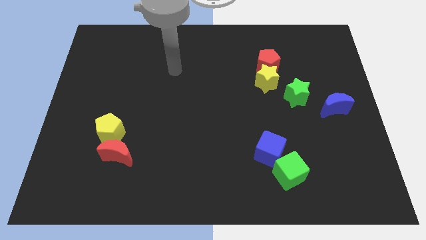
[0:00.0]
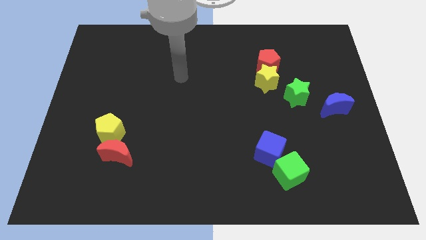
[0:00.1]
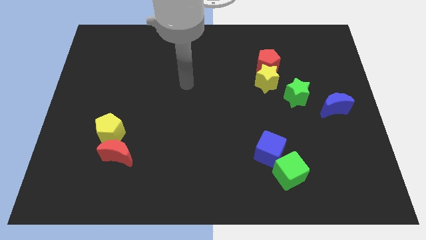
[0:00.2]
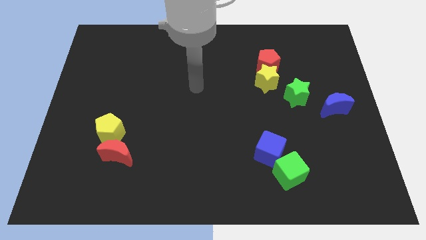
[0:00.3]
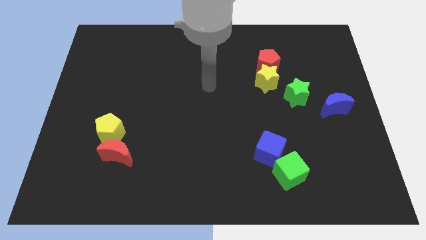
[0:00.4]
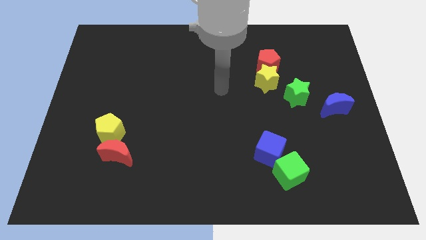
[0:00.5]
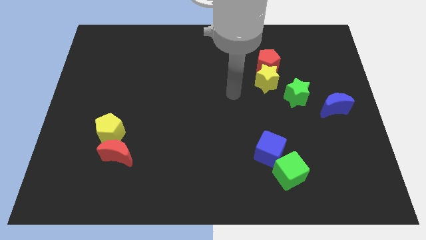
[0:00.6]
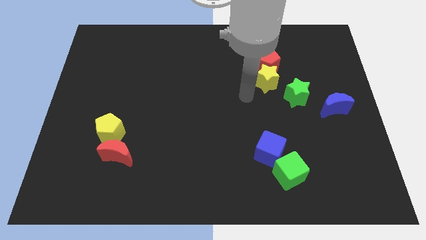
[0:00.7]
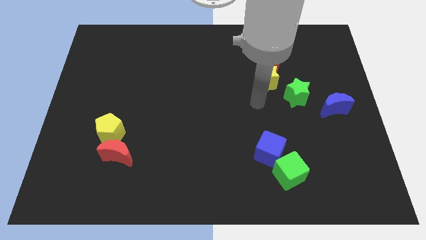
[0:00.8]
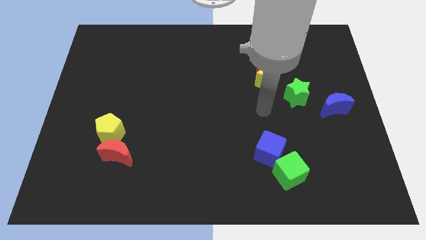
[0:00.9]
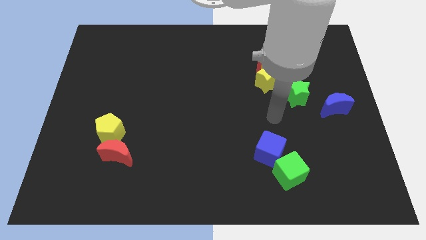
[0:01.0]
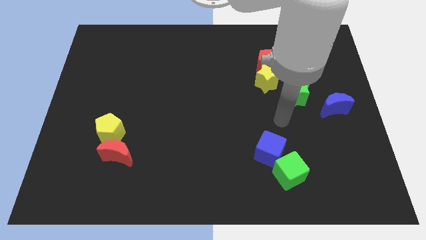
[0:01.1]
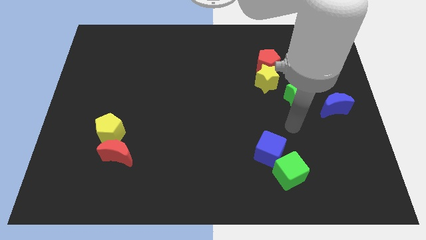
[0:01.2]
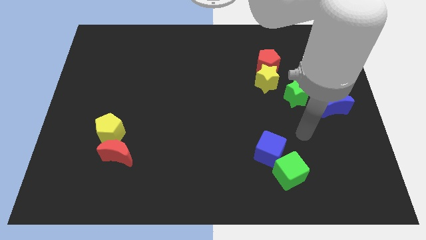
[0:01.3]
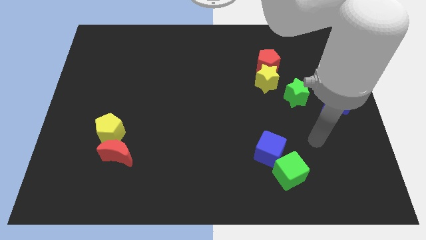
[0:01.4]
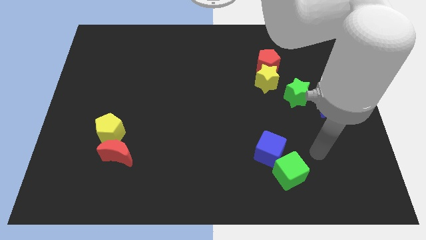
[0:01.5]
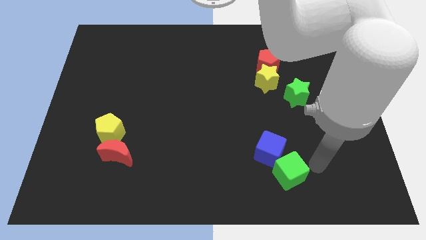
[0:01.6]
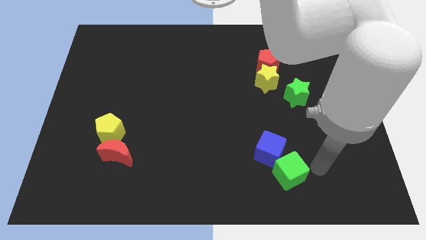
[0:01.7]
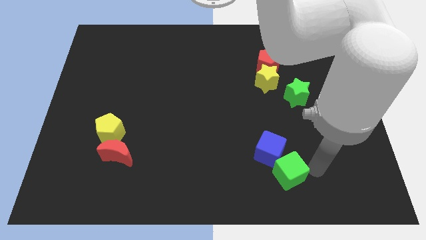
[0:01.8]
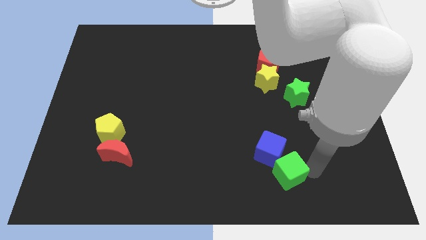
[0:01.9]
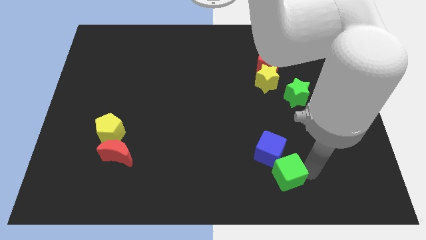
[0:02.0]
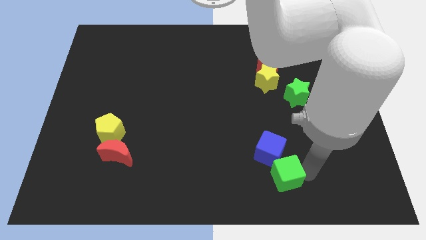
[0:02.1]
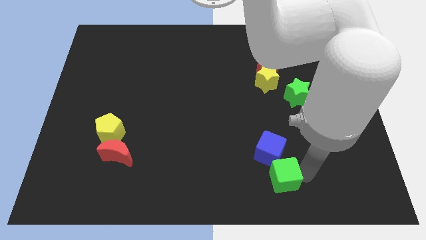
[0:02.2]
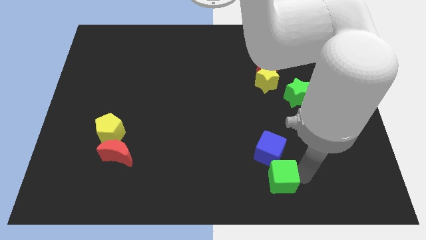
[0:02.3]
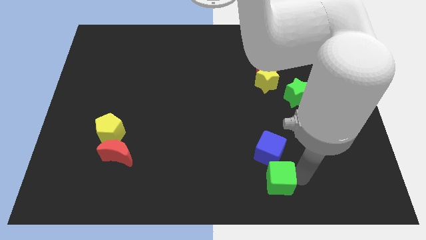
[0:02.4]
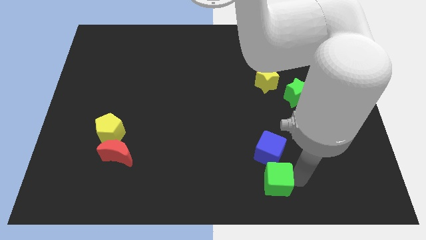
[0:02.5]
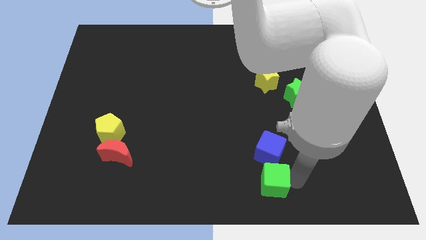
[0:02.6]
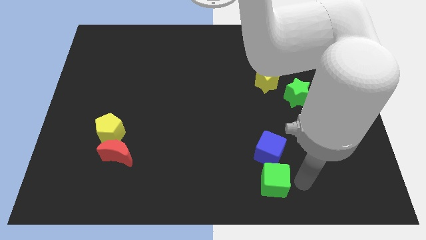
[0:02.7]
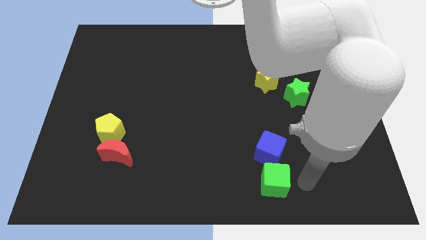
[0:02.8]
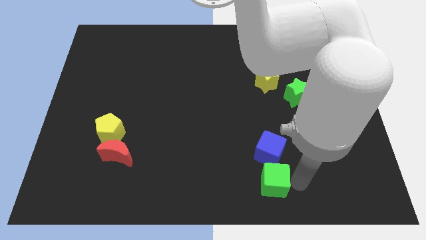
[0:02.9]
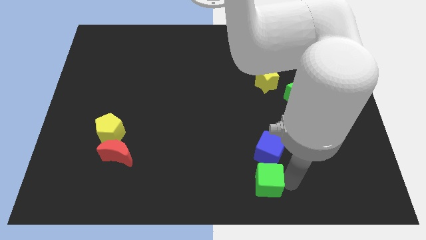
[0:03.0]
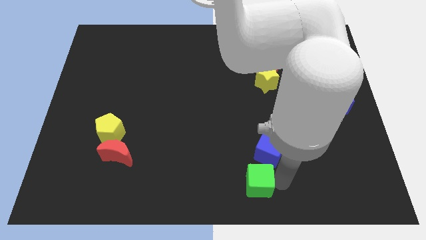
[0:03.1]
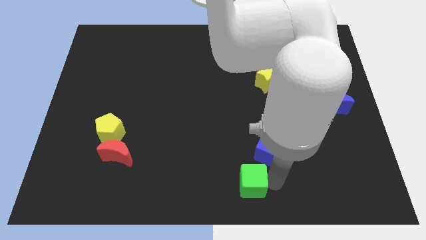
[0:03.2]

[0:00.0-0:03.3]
move the green cube to the left a little

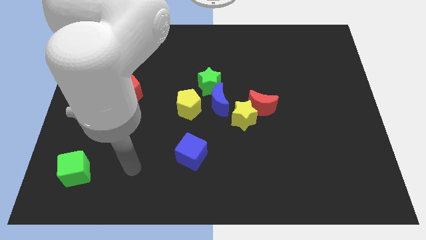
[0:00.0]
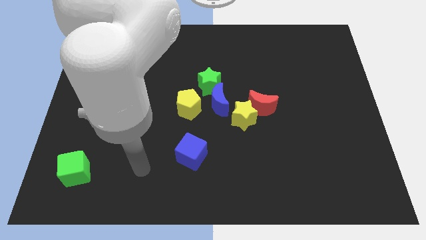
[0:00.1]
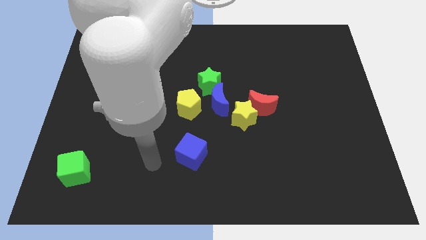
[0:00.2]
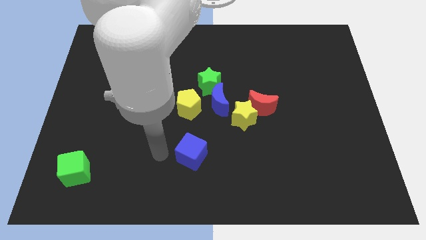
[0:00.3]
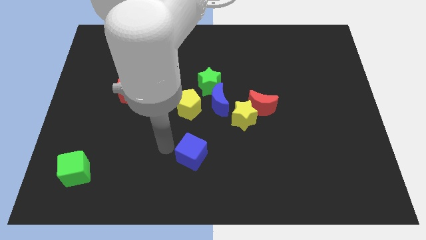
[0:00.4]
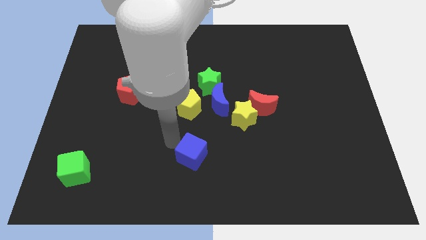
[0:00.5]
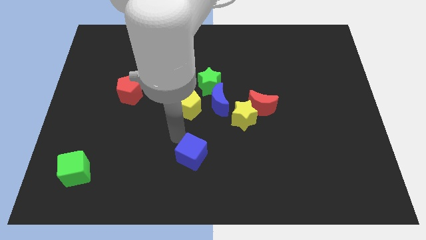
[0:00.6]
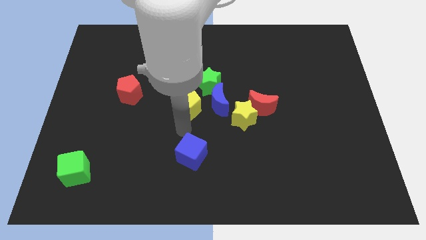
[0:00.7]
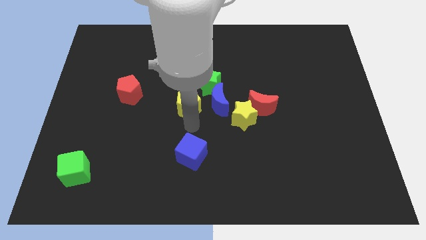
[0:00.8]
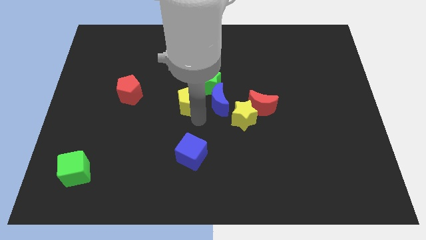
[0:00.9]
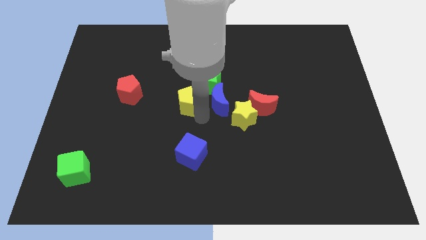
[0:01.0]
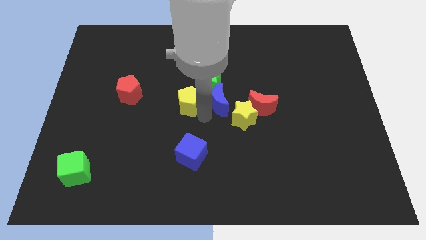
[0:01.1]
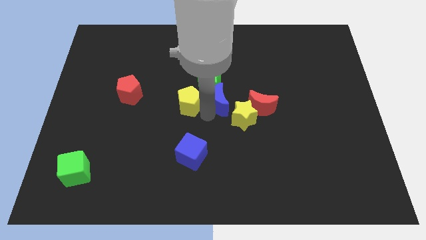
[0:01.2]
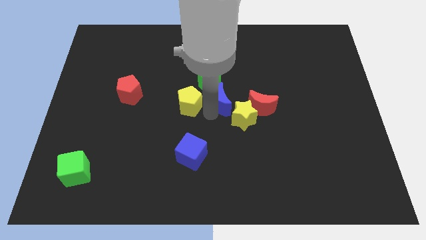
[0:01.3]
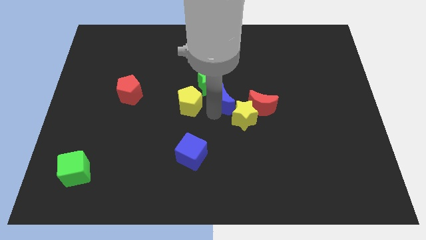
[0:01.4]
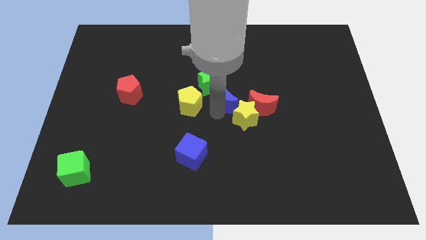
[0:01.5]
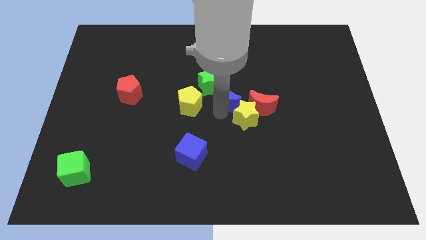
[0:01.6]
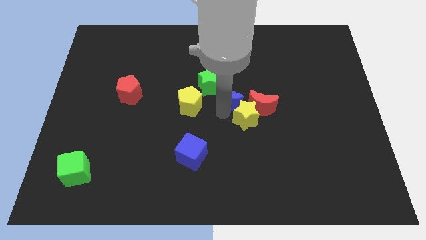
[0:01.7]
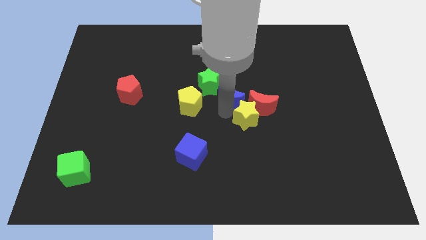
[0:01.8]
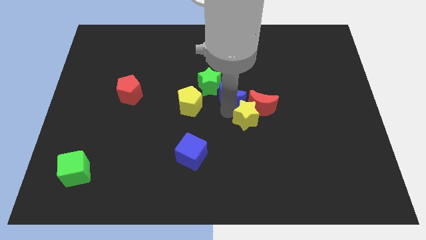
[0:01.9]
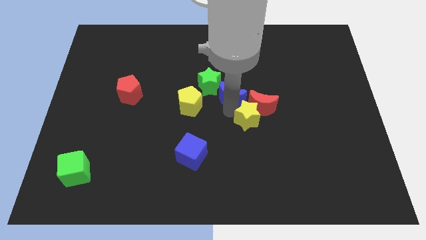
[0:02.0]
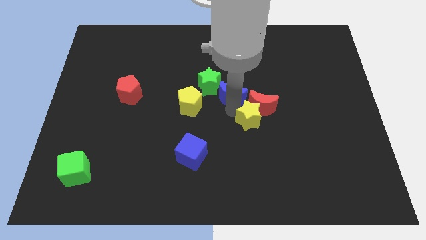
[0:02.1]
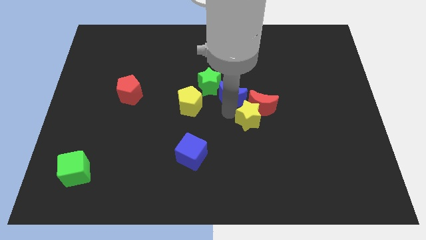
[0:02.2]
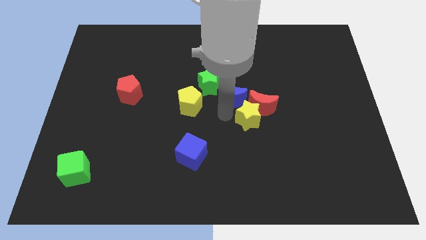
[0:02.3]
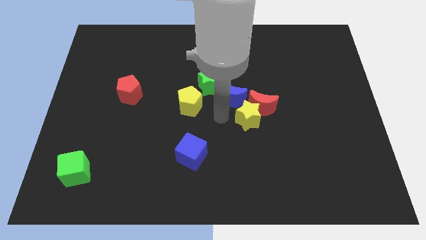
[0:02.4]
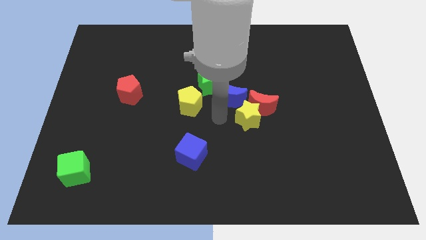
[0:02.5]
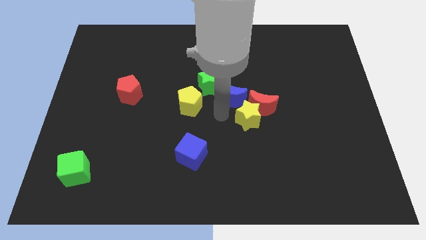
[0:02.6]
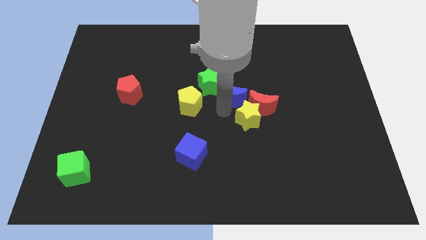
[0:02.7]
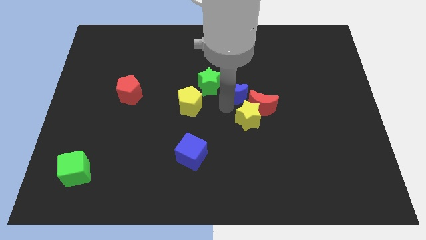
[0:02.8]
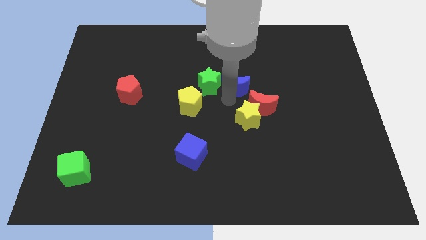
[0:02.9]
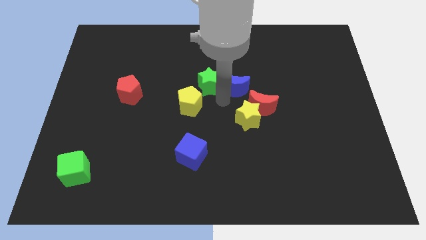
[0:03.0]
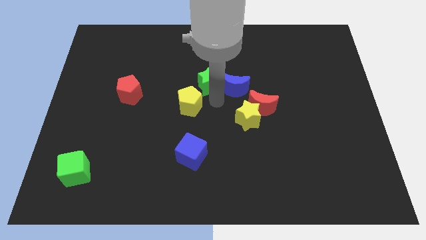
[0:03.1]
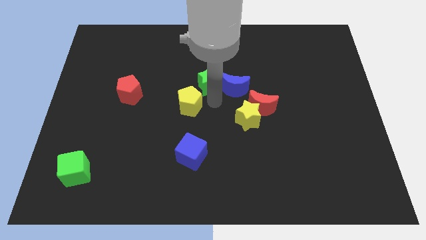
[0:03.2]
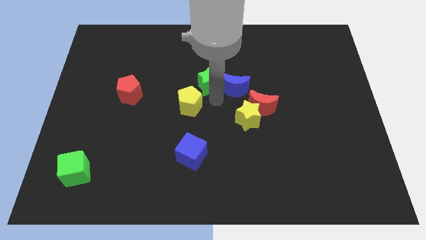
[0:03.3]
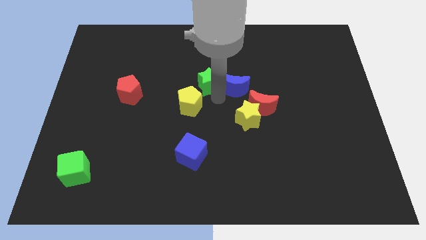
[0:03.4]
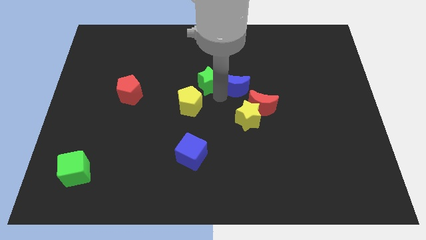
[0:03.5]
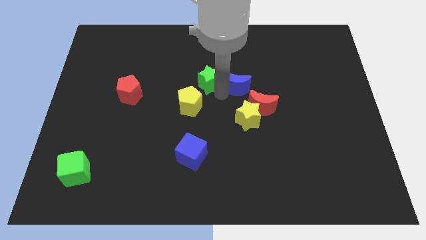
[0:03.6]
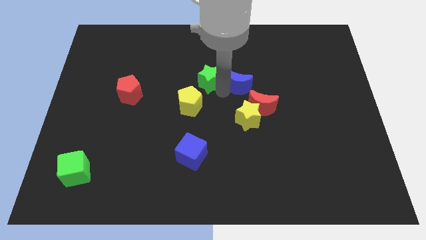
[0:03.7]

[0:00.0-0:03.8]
slightly slide the blue moon diagonally up and to the right

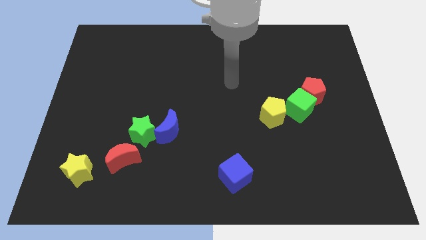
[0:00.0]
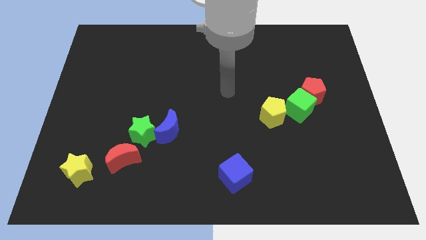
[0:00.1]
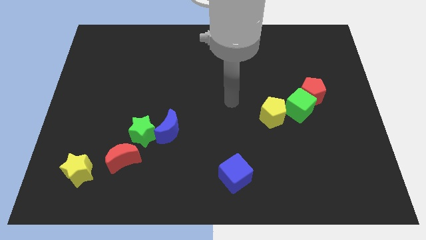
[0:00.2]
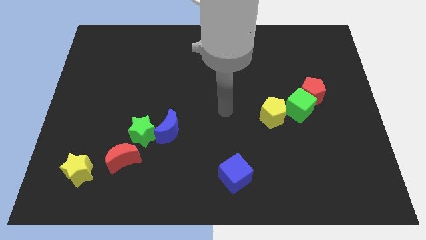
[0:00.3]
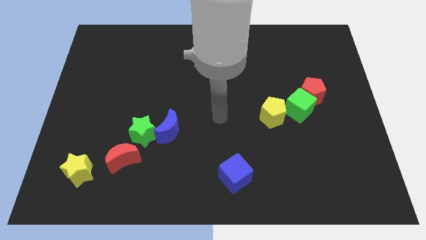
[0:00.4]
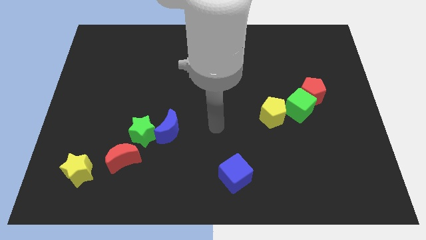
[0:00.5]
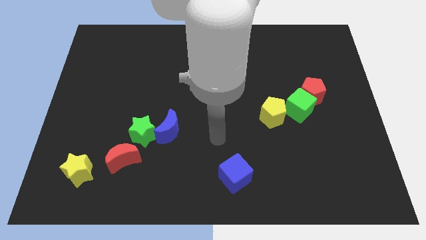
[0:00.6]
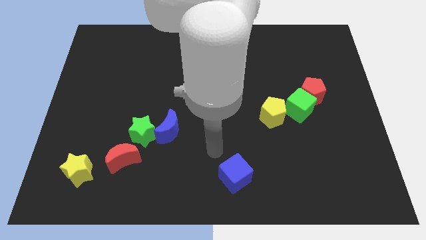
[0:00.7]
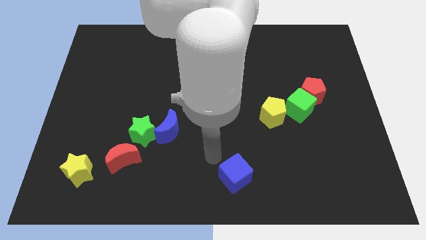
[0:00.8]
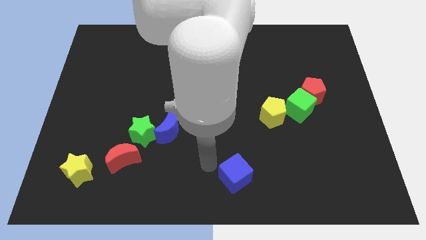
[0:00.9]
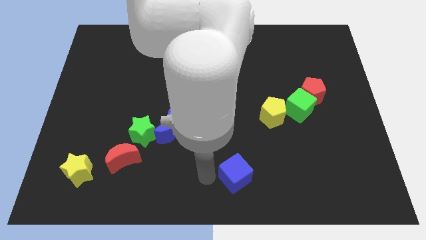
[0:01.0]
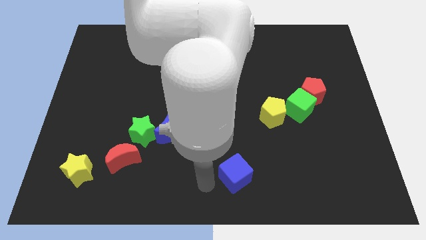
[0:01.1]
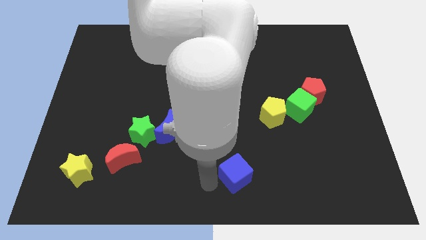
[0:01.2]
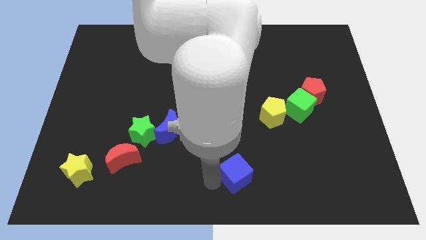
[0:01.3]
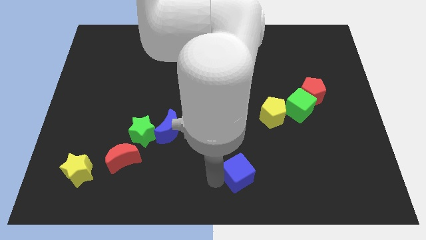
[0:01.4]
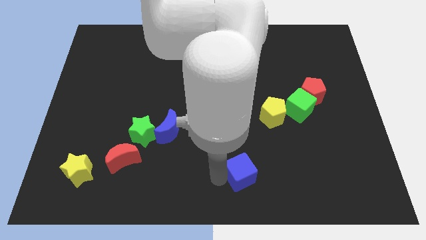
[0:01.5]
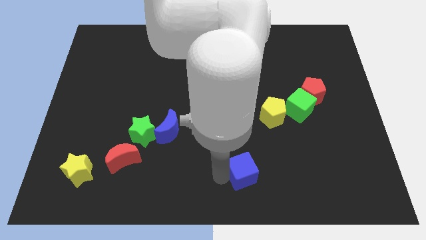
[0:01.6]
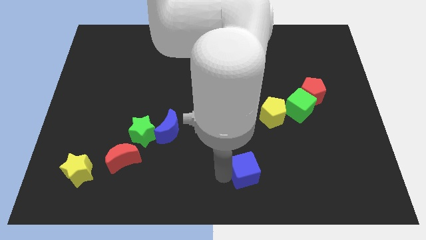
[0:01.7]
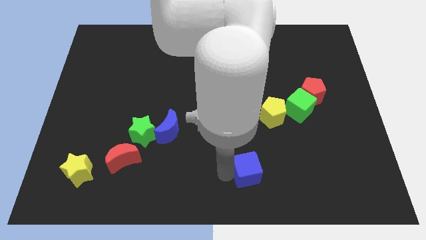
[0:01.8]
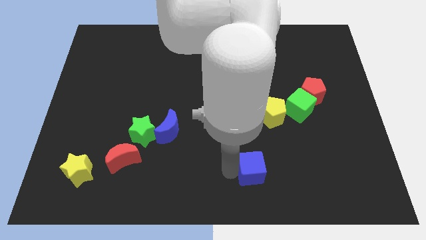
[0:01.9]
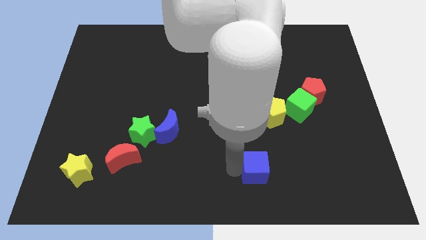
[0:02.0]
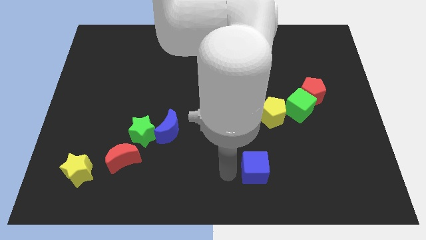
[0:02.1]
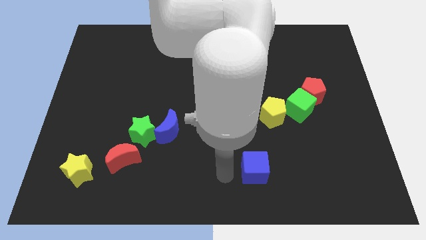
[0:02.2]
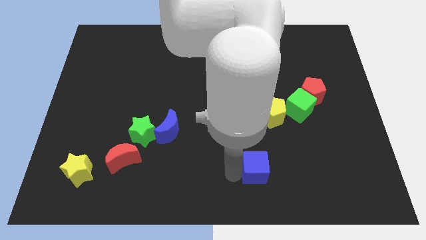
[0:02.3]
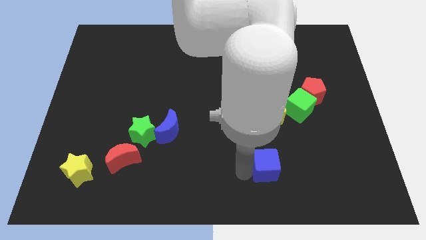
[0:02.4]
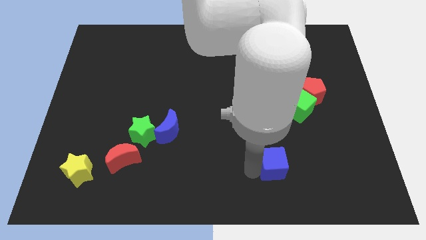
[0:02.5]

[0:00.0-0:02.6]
push the blue cube right slightly
